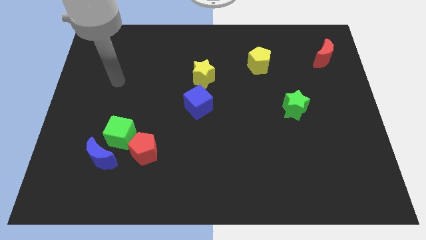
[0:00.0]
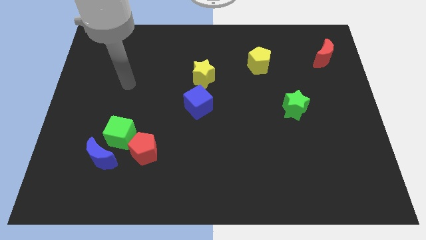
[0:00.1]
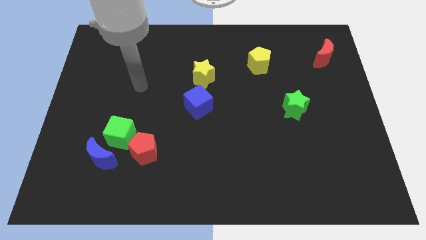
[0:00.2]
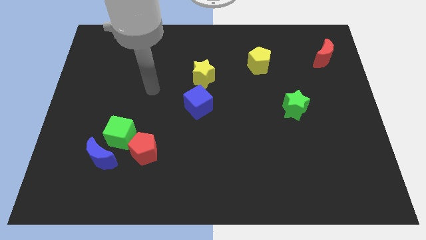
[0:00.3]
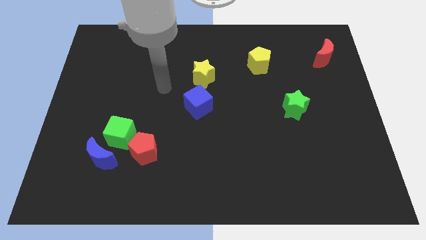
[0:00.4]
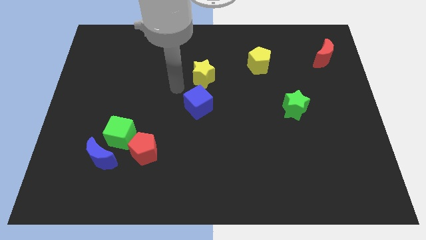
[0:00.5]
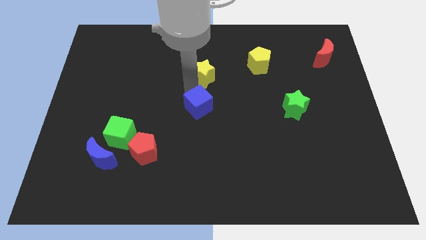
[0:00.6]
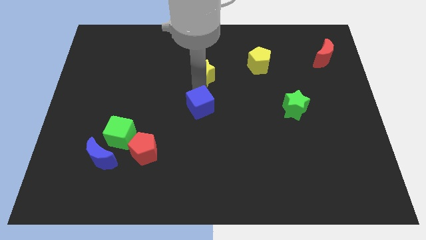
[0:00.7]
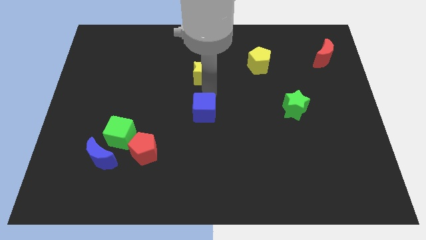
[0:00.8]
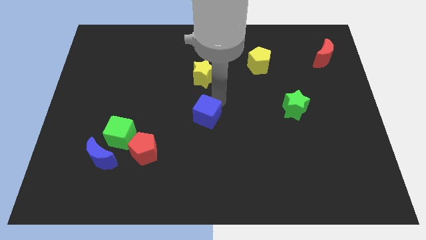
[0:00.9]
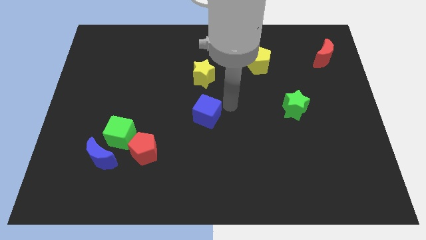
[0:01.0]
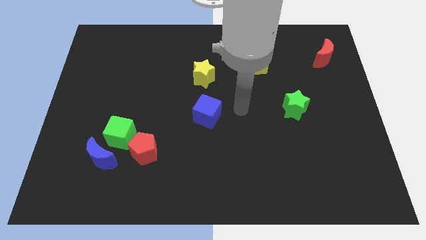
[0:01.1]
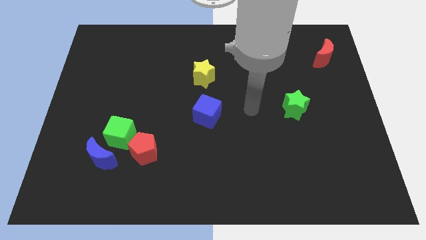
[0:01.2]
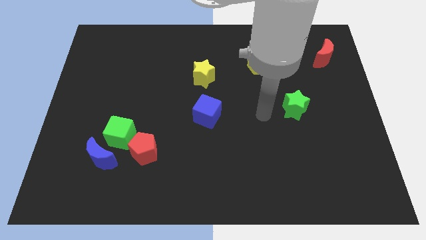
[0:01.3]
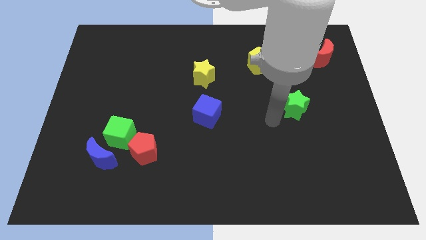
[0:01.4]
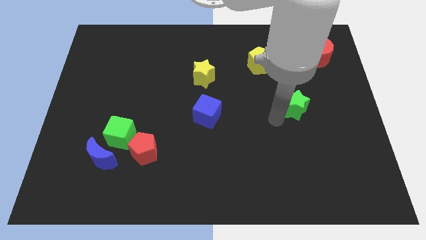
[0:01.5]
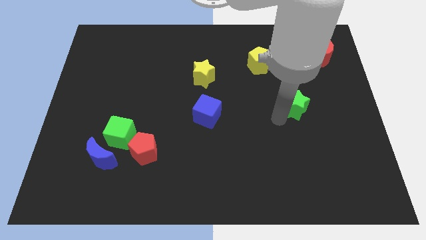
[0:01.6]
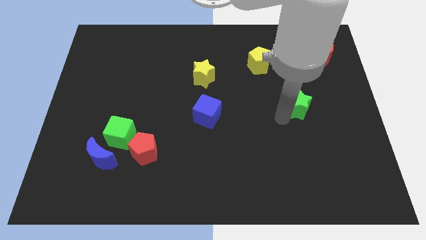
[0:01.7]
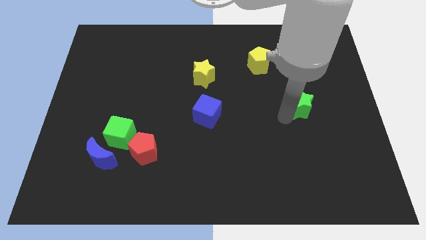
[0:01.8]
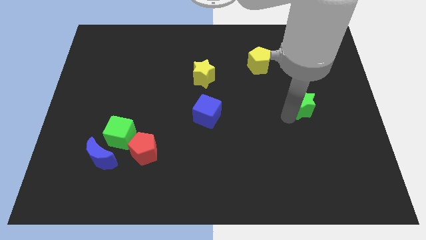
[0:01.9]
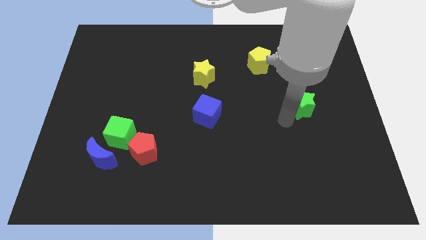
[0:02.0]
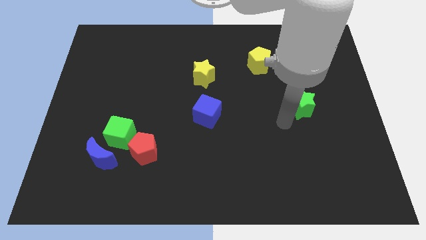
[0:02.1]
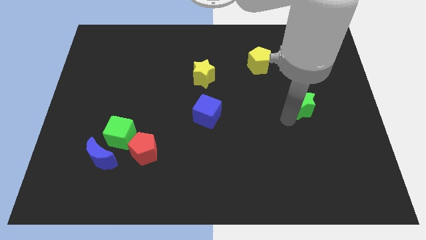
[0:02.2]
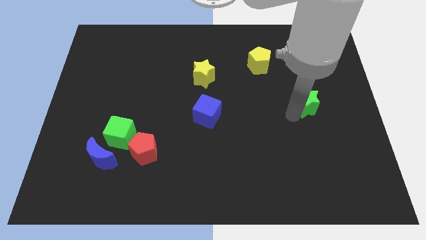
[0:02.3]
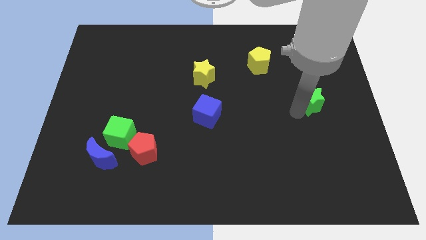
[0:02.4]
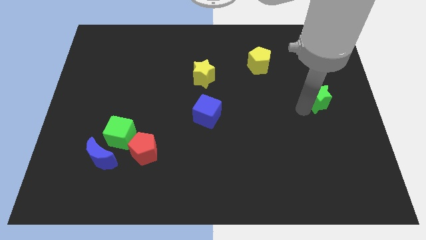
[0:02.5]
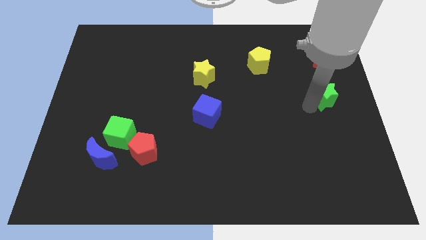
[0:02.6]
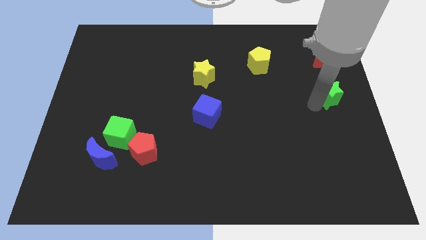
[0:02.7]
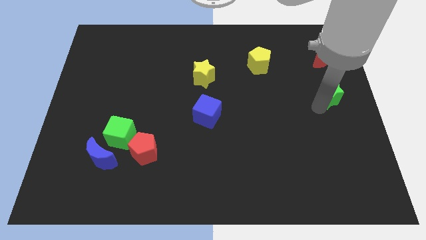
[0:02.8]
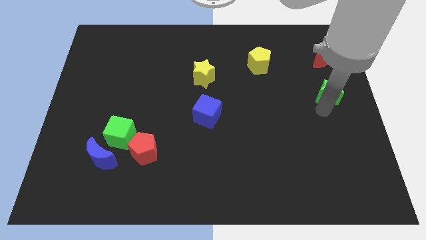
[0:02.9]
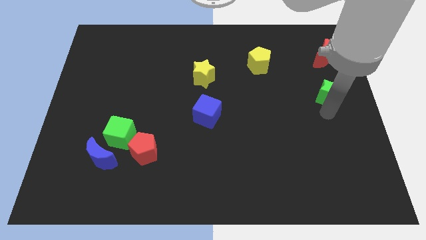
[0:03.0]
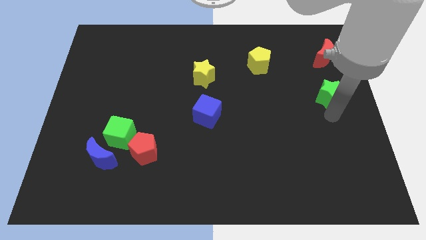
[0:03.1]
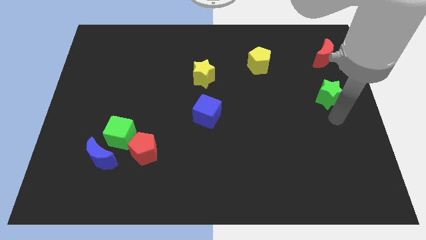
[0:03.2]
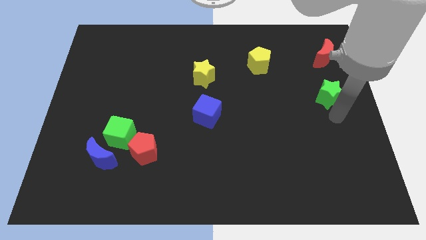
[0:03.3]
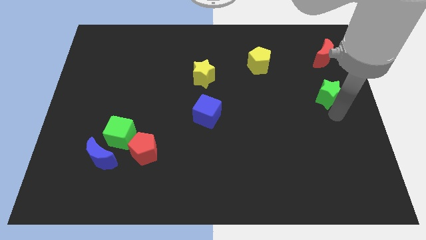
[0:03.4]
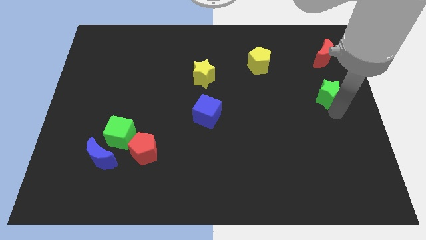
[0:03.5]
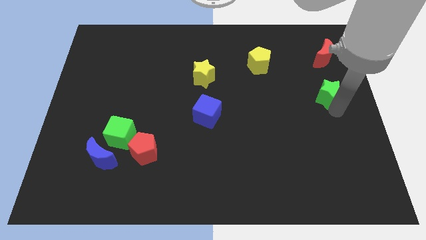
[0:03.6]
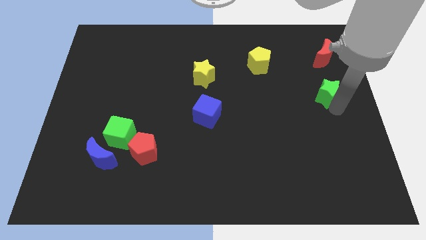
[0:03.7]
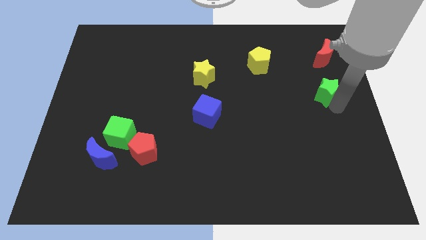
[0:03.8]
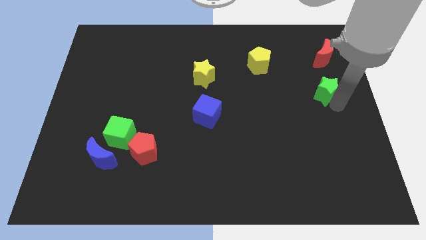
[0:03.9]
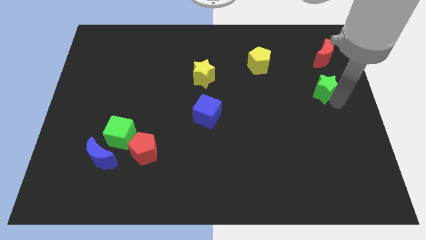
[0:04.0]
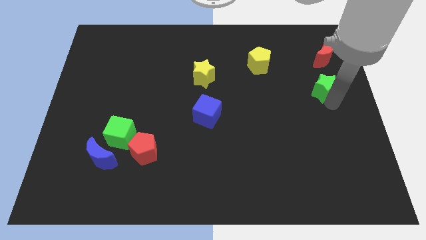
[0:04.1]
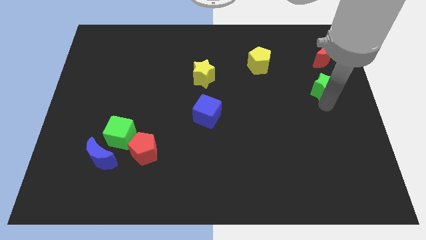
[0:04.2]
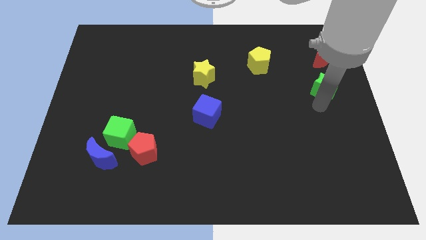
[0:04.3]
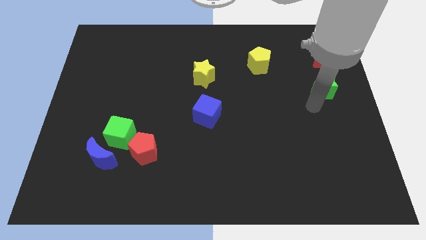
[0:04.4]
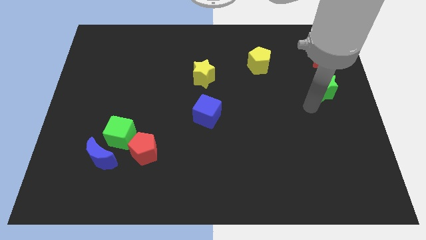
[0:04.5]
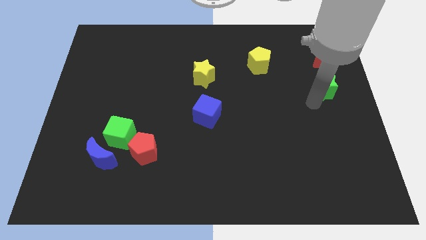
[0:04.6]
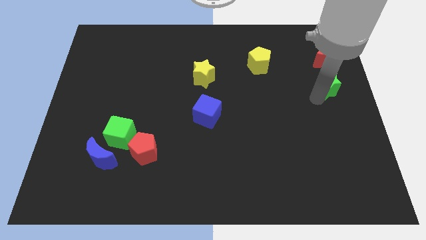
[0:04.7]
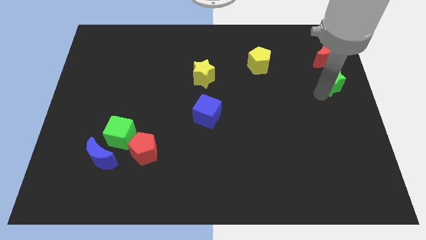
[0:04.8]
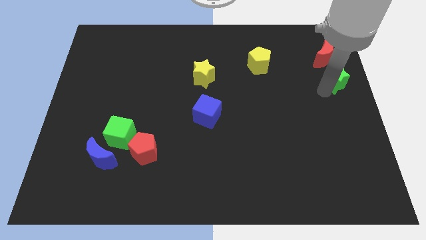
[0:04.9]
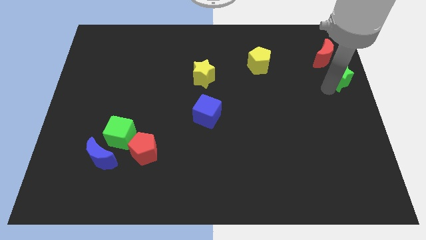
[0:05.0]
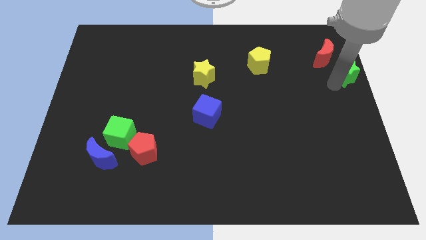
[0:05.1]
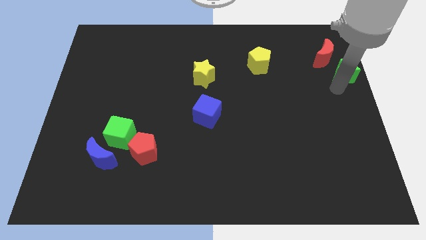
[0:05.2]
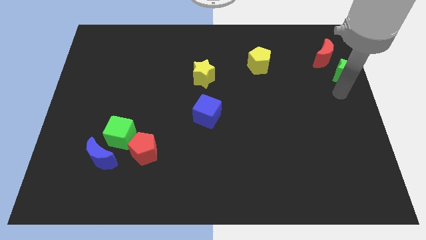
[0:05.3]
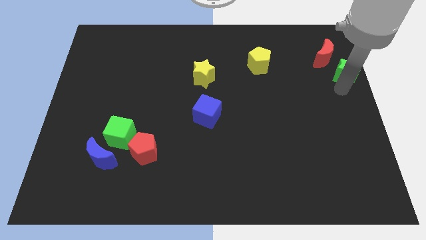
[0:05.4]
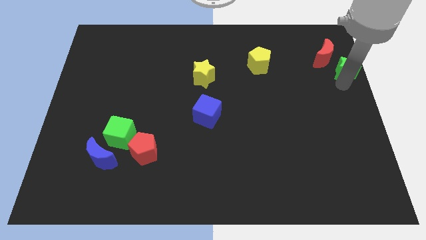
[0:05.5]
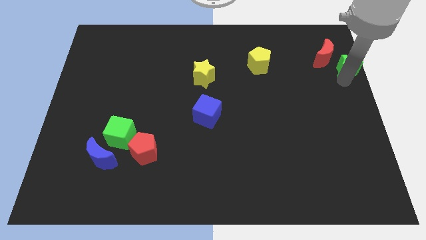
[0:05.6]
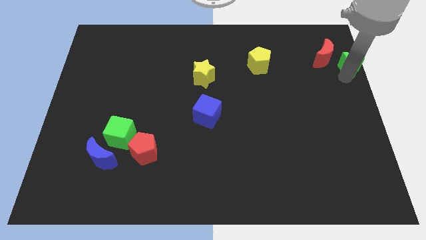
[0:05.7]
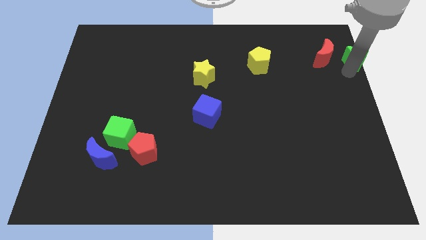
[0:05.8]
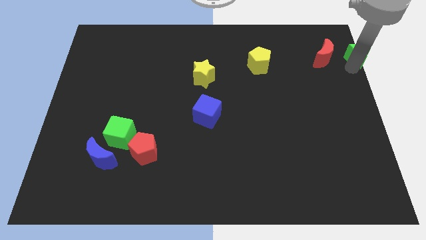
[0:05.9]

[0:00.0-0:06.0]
push the green star to the top right corner

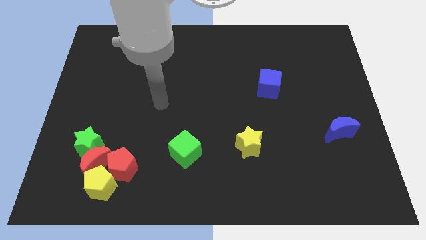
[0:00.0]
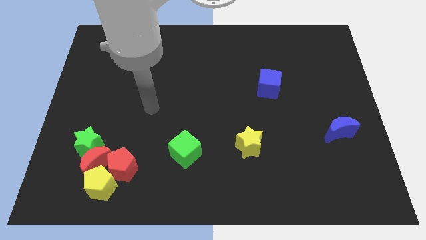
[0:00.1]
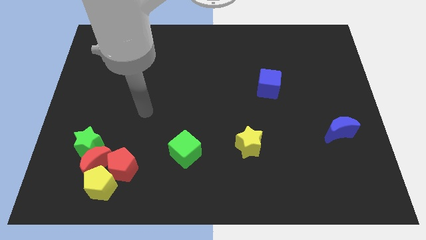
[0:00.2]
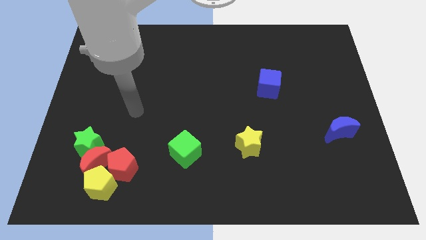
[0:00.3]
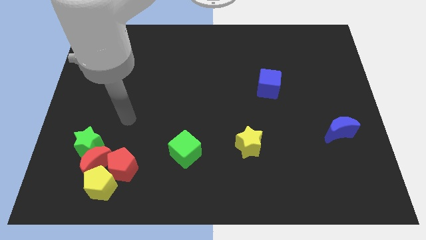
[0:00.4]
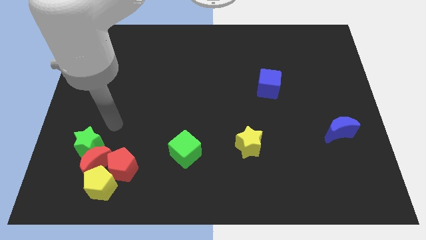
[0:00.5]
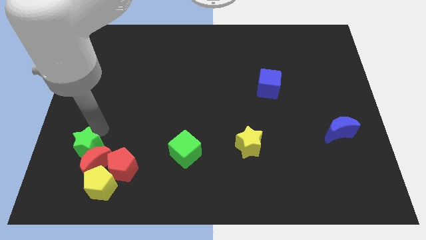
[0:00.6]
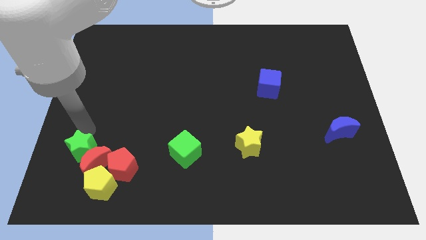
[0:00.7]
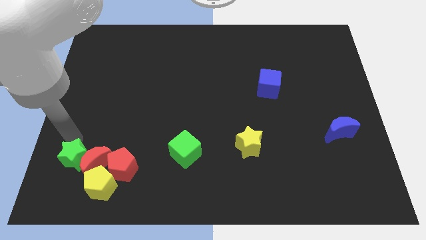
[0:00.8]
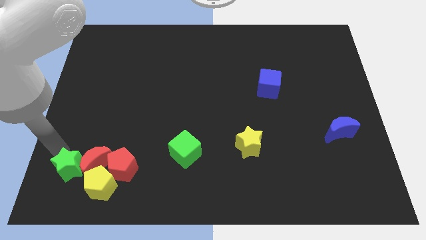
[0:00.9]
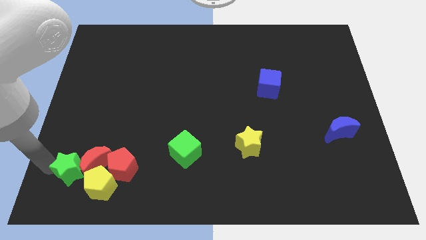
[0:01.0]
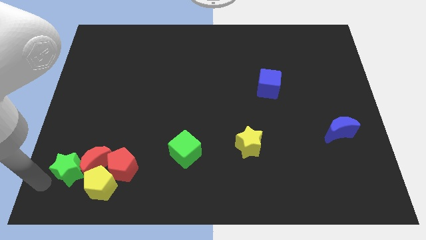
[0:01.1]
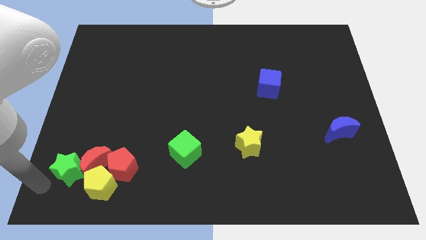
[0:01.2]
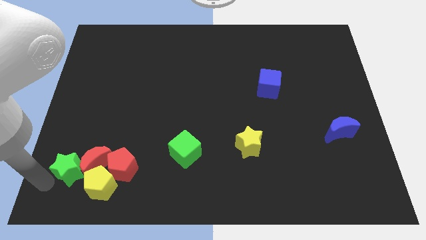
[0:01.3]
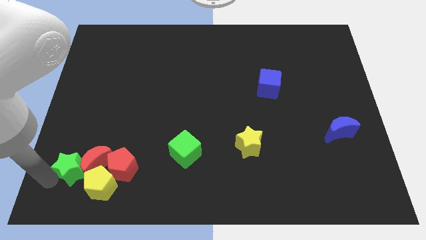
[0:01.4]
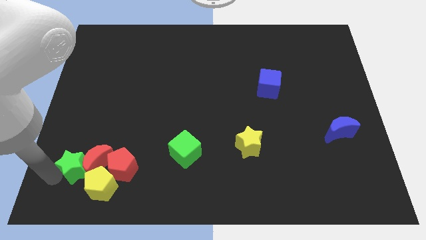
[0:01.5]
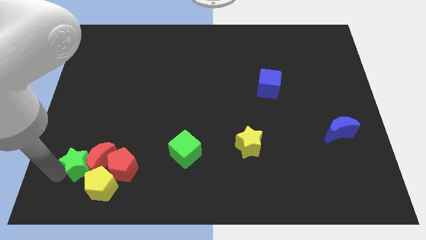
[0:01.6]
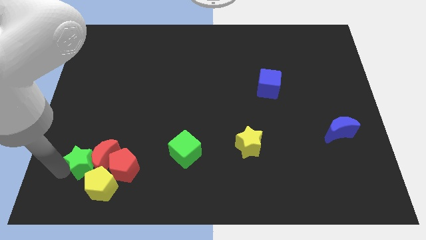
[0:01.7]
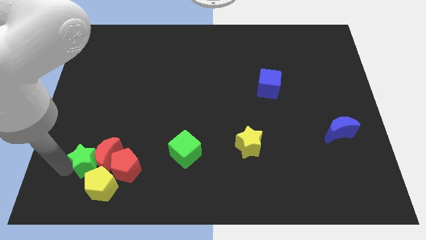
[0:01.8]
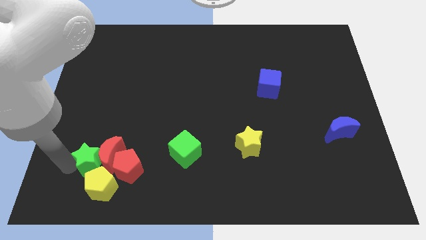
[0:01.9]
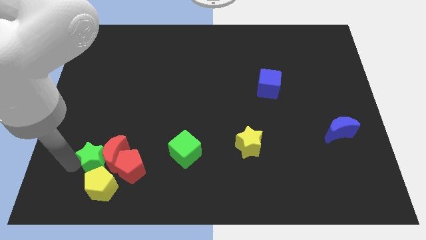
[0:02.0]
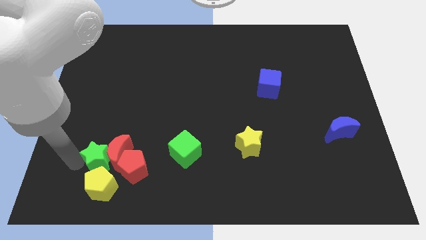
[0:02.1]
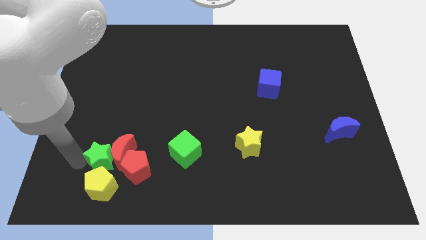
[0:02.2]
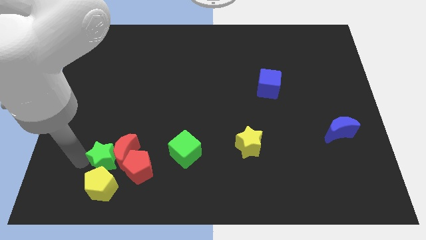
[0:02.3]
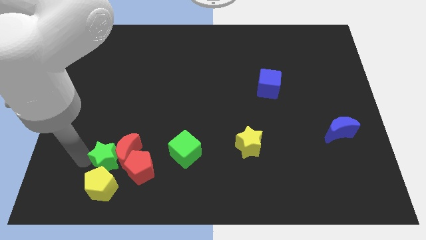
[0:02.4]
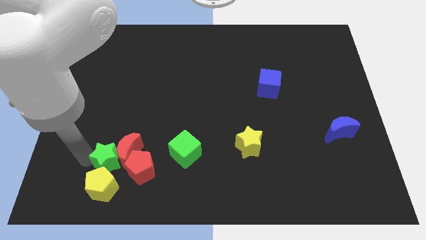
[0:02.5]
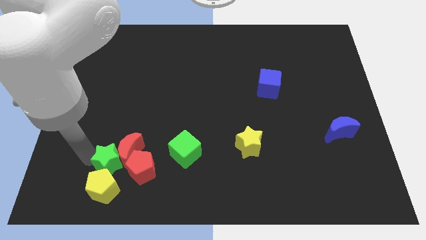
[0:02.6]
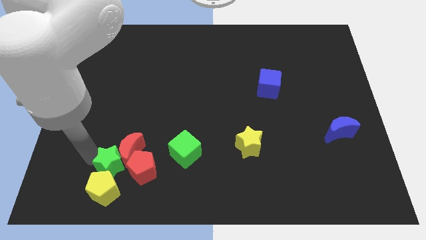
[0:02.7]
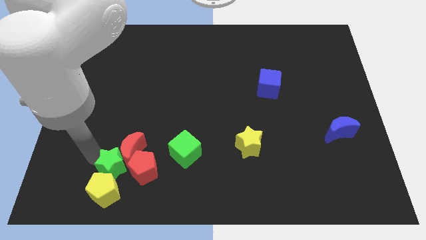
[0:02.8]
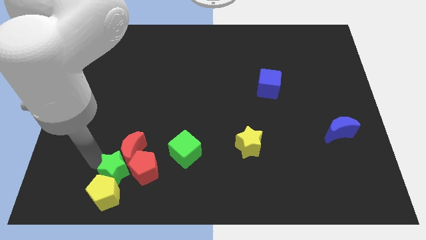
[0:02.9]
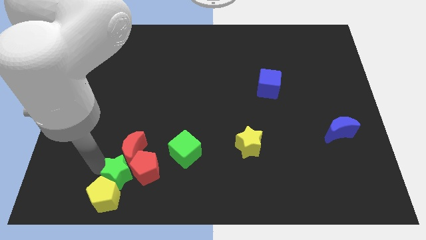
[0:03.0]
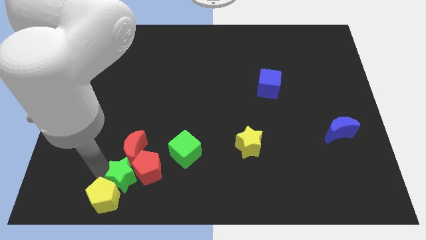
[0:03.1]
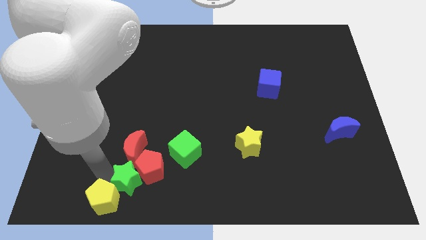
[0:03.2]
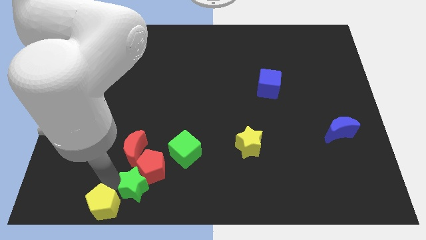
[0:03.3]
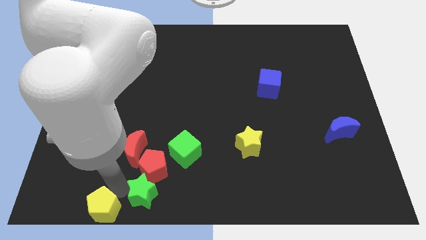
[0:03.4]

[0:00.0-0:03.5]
slide the green star to the bottom side
